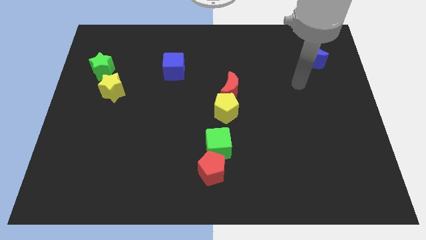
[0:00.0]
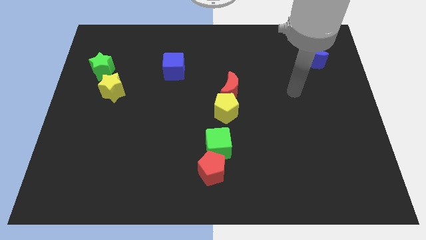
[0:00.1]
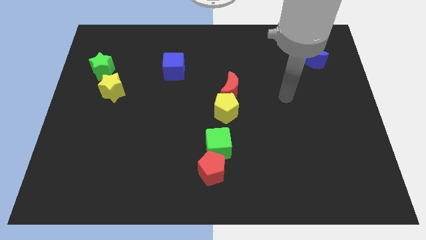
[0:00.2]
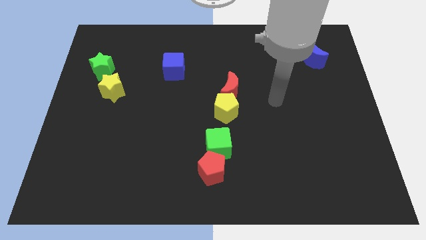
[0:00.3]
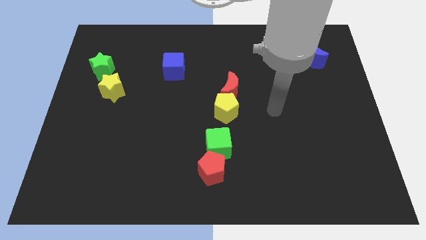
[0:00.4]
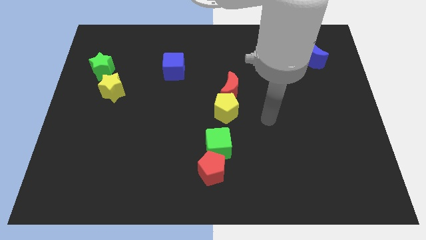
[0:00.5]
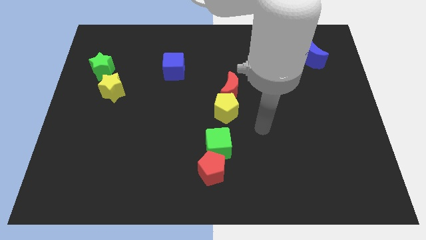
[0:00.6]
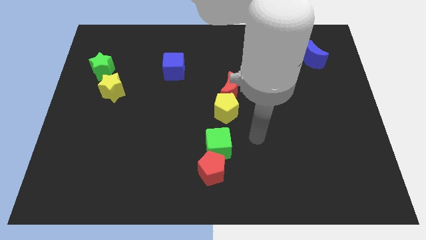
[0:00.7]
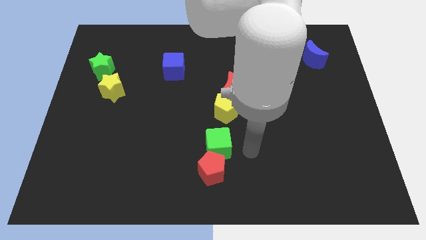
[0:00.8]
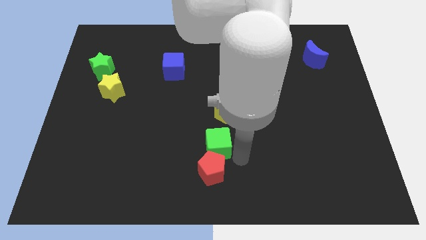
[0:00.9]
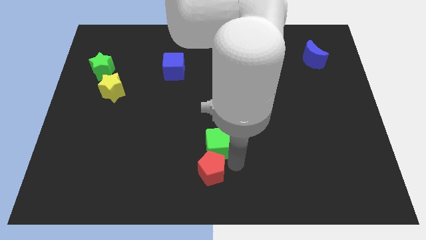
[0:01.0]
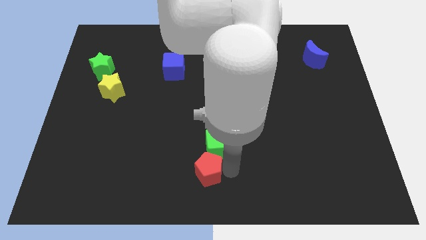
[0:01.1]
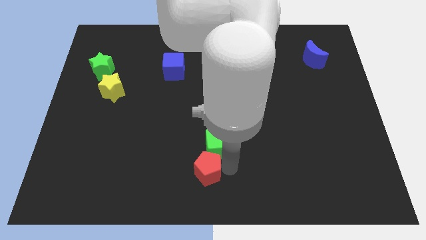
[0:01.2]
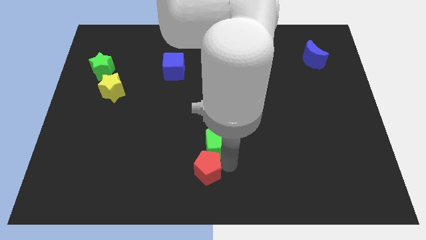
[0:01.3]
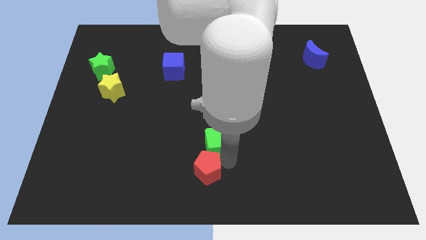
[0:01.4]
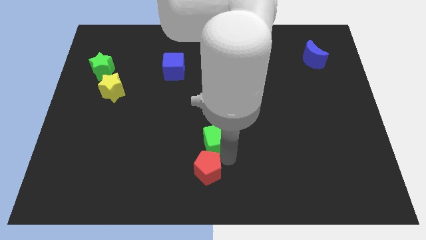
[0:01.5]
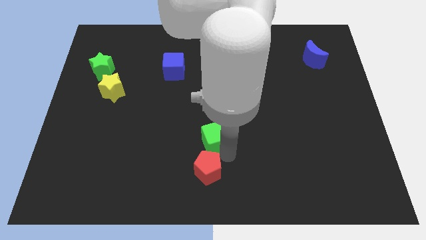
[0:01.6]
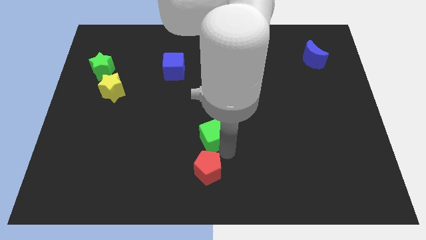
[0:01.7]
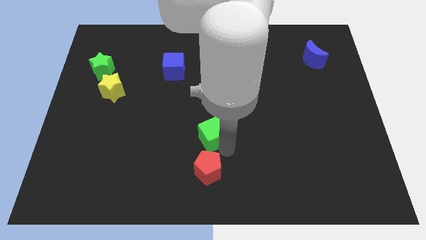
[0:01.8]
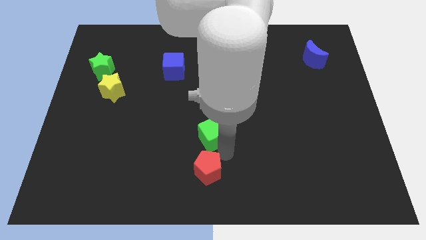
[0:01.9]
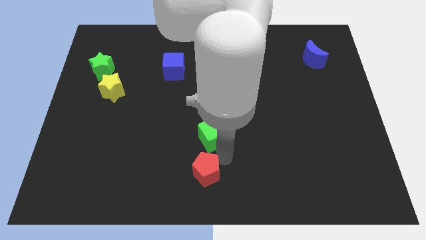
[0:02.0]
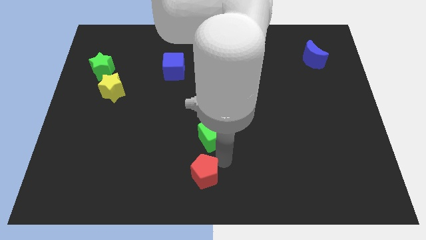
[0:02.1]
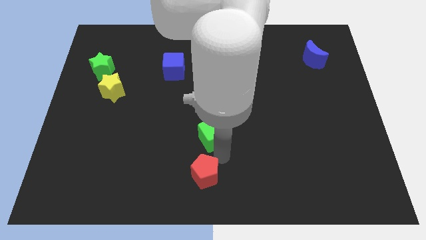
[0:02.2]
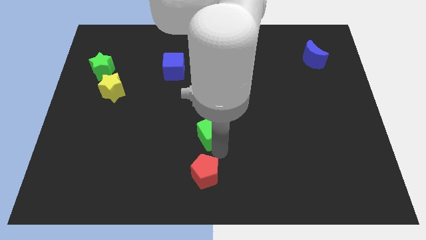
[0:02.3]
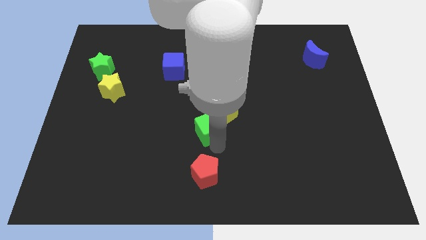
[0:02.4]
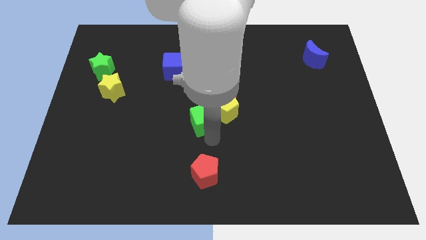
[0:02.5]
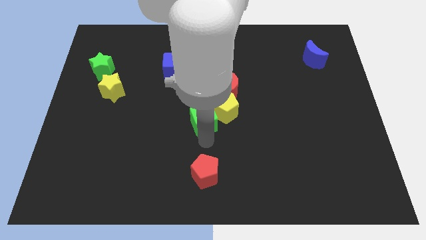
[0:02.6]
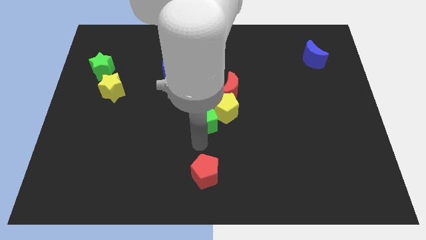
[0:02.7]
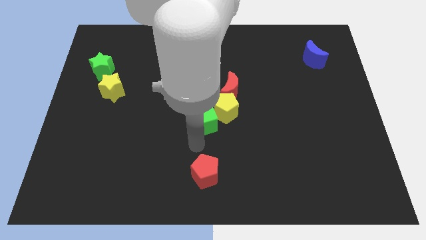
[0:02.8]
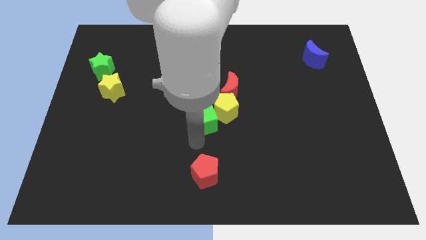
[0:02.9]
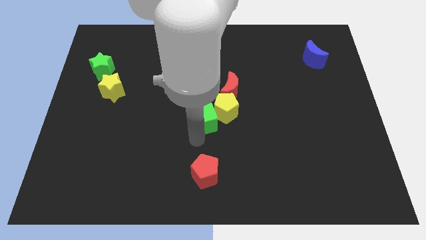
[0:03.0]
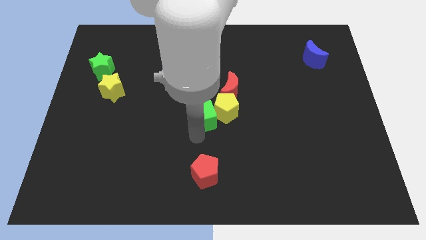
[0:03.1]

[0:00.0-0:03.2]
slightly slide the green cube up

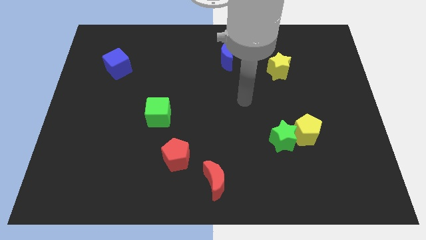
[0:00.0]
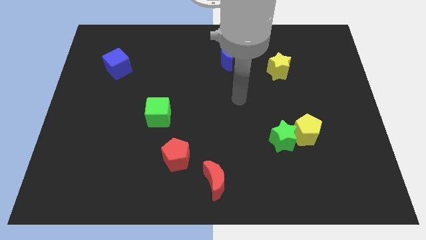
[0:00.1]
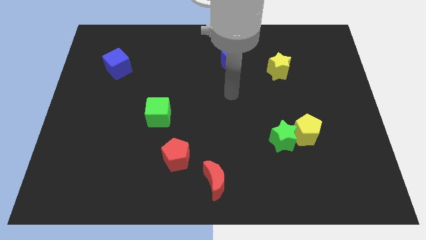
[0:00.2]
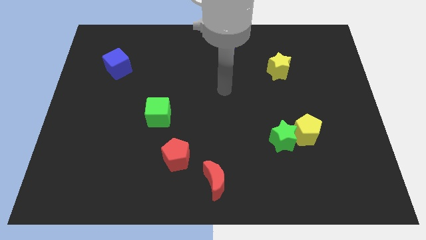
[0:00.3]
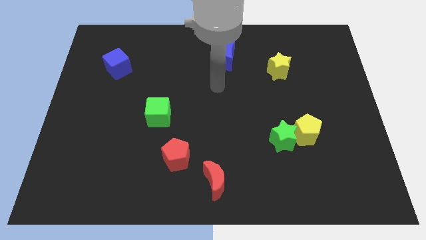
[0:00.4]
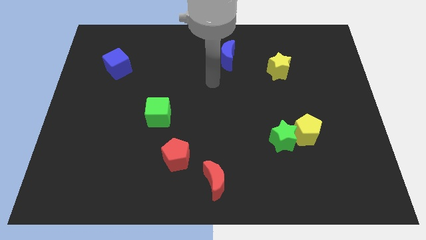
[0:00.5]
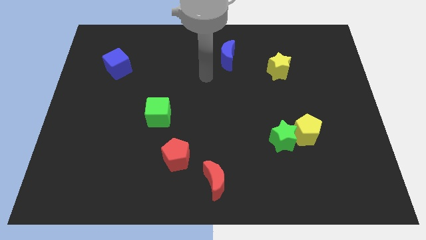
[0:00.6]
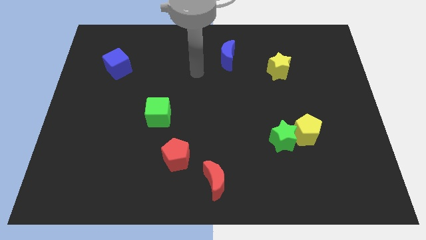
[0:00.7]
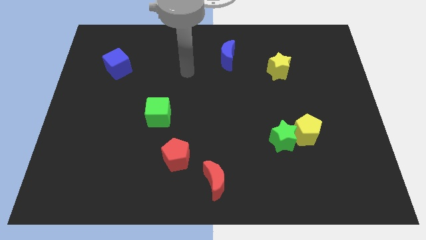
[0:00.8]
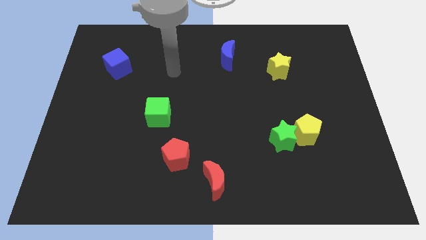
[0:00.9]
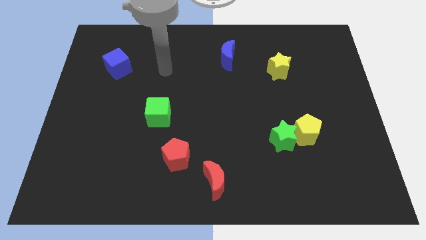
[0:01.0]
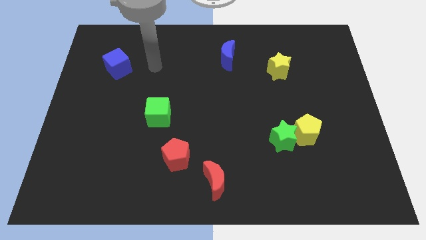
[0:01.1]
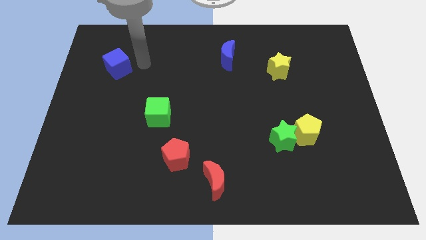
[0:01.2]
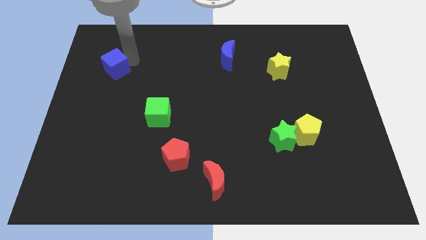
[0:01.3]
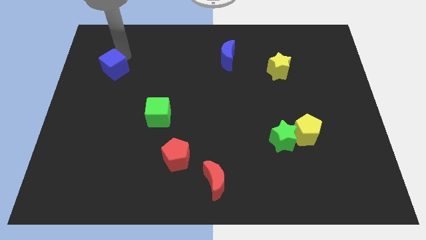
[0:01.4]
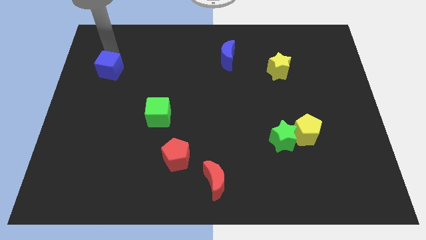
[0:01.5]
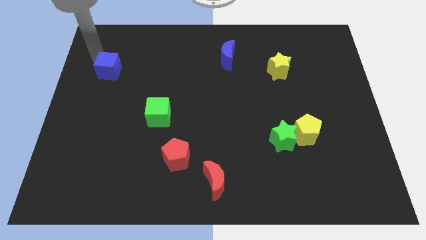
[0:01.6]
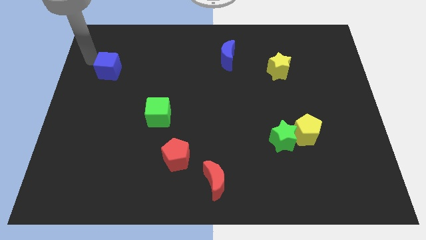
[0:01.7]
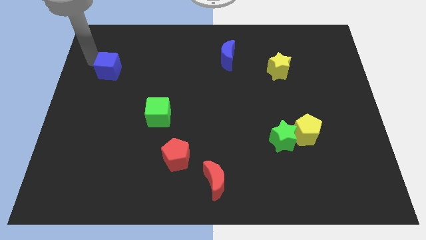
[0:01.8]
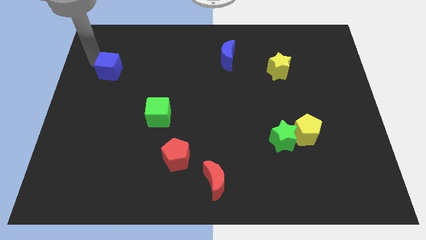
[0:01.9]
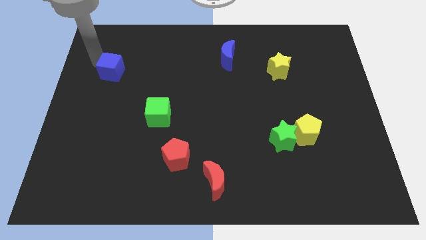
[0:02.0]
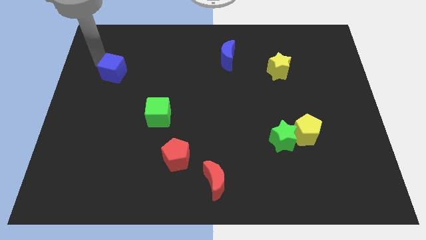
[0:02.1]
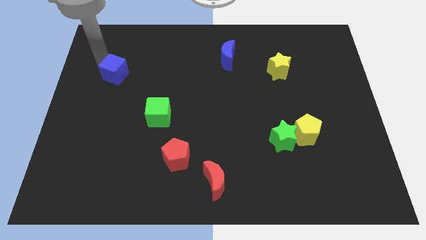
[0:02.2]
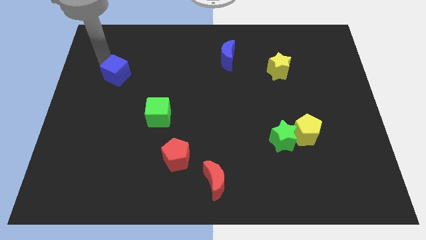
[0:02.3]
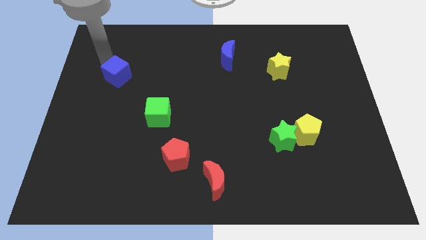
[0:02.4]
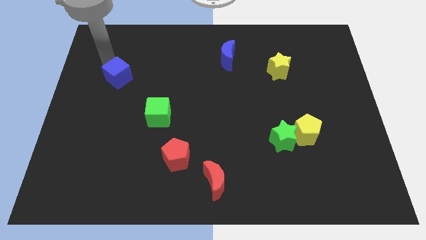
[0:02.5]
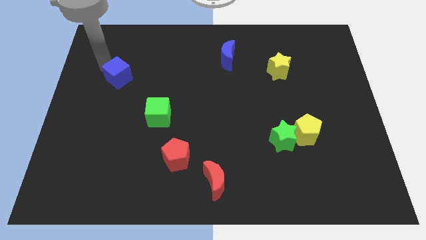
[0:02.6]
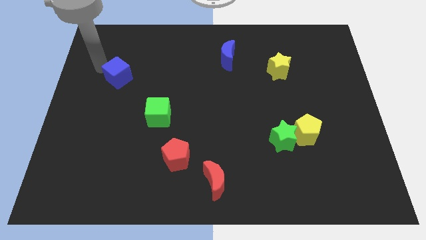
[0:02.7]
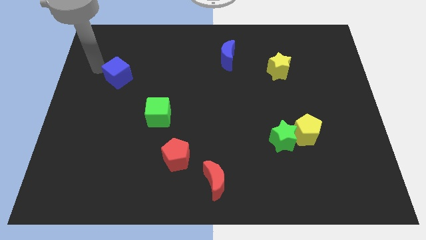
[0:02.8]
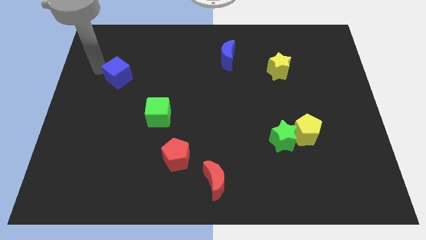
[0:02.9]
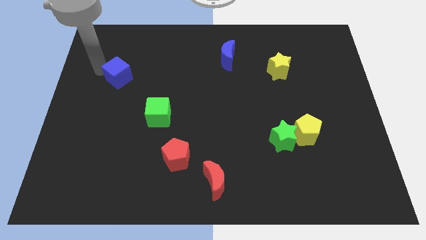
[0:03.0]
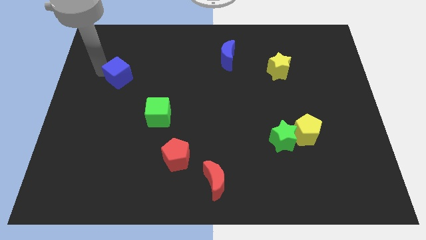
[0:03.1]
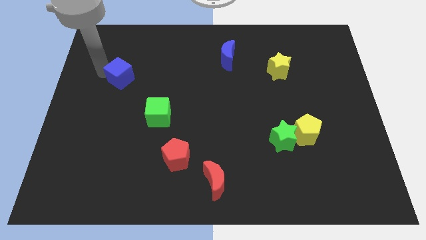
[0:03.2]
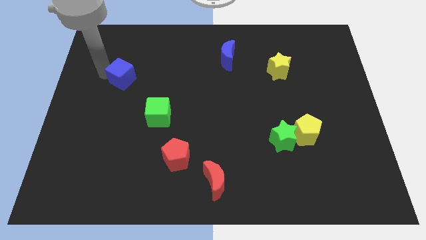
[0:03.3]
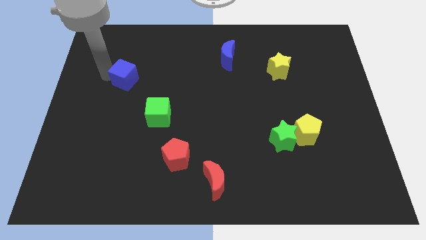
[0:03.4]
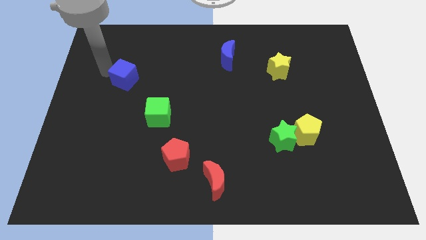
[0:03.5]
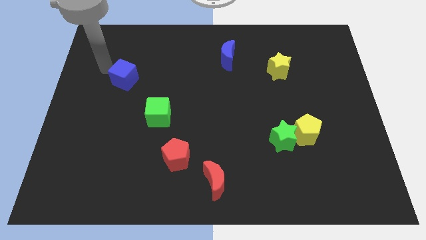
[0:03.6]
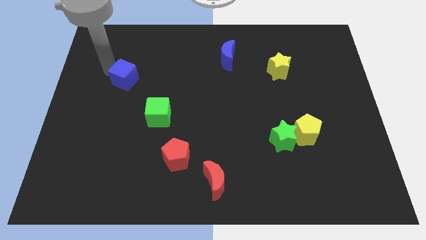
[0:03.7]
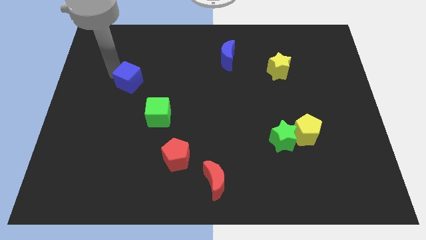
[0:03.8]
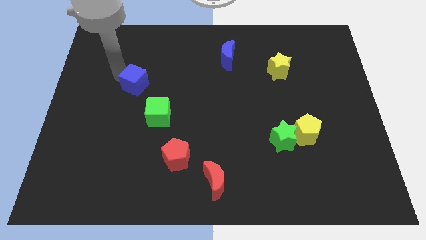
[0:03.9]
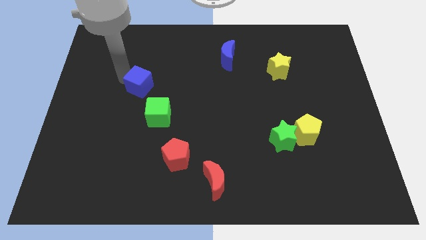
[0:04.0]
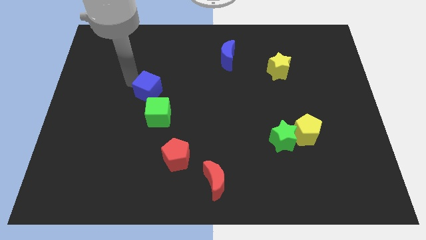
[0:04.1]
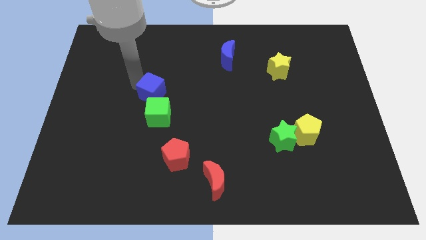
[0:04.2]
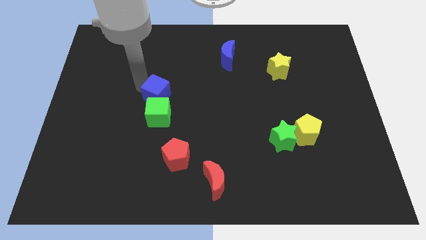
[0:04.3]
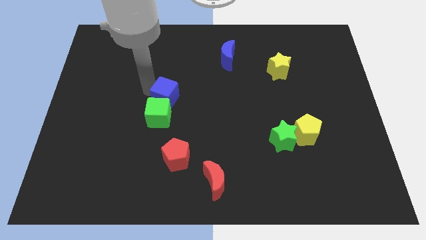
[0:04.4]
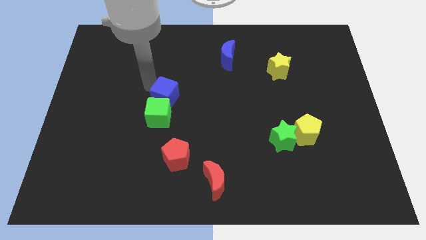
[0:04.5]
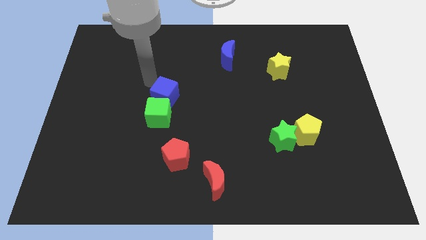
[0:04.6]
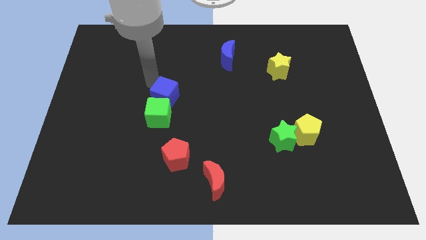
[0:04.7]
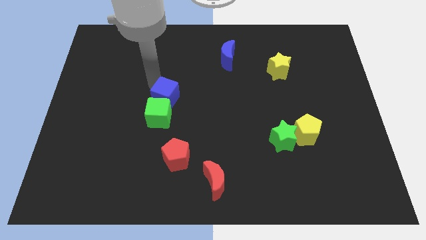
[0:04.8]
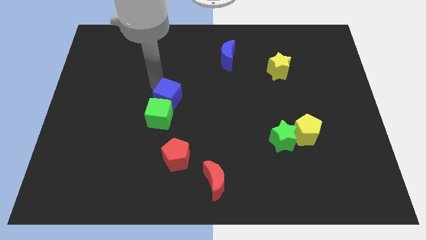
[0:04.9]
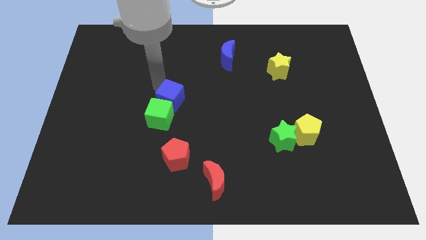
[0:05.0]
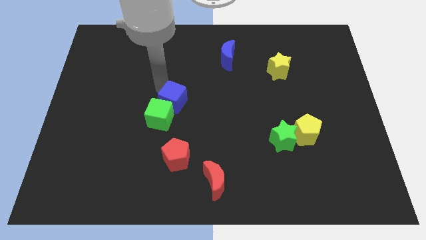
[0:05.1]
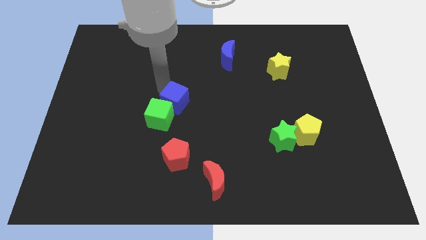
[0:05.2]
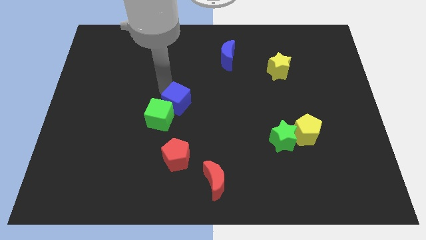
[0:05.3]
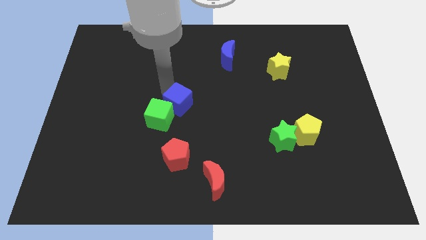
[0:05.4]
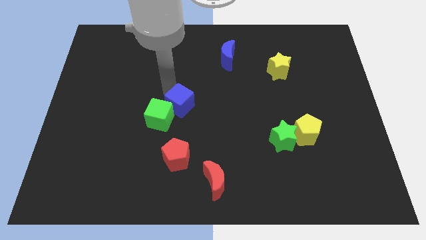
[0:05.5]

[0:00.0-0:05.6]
move the blue cube down and then right
